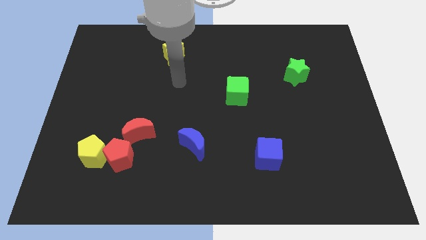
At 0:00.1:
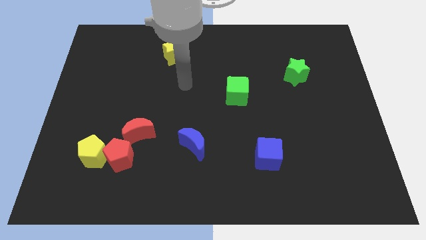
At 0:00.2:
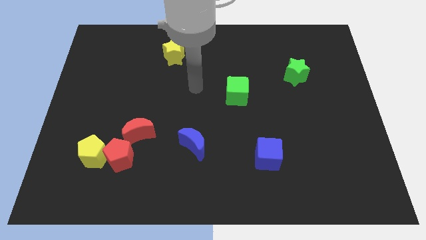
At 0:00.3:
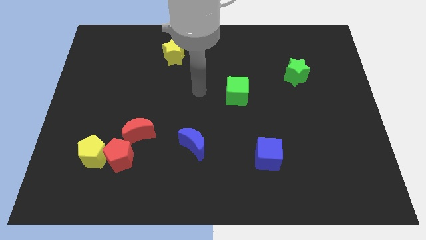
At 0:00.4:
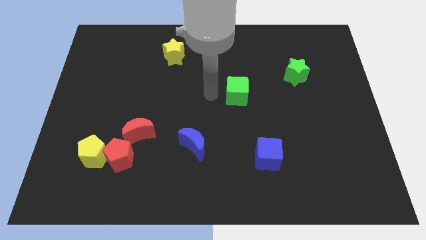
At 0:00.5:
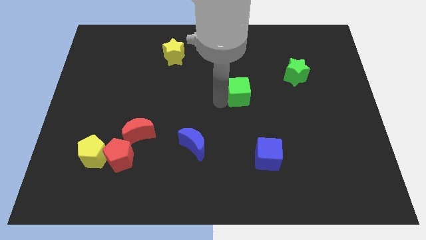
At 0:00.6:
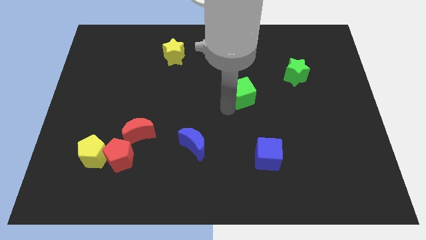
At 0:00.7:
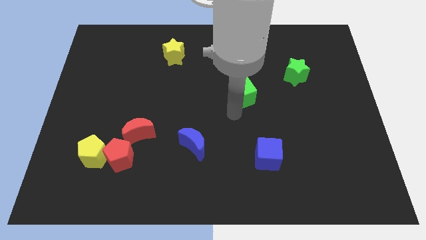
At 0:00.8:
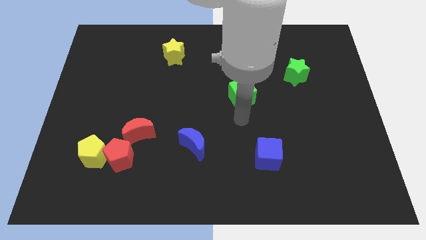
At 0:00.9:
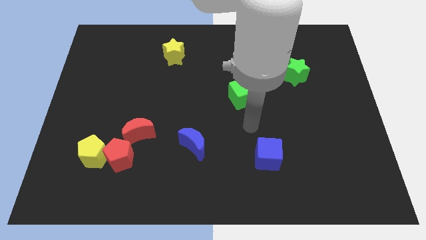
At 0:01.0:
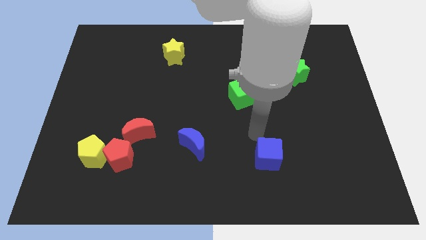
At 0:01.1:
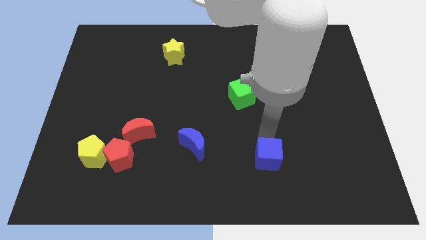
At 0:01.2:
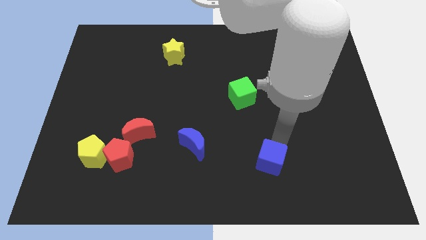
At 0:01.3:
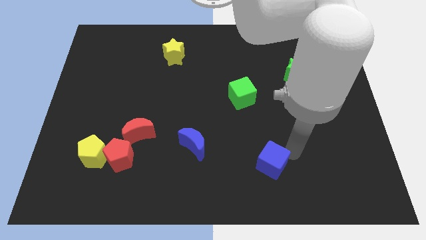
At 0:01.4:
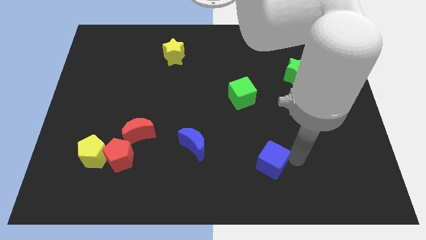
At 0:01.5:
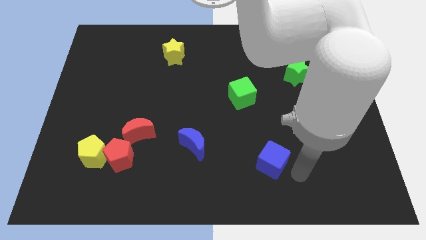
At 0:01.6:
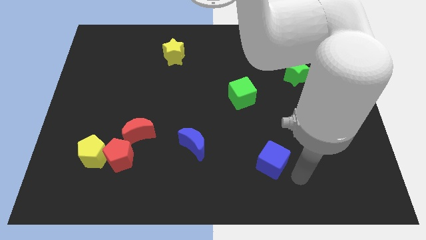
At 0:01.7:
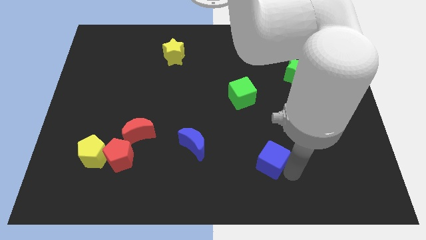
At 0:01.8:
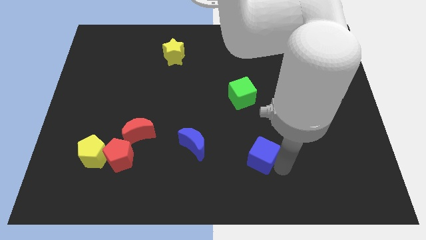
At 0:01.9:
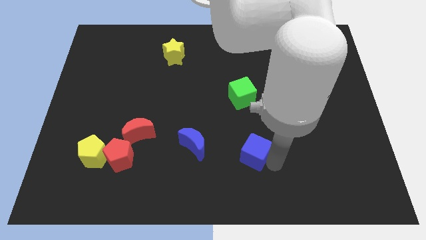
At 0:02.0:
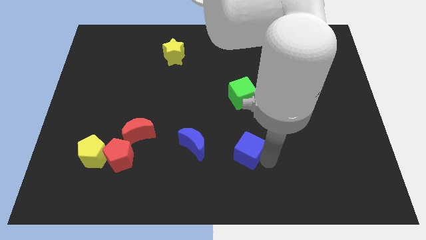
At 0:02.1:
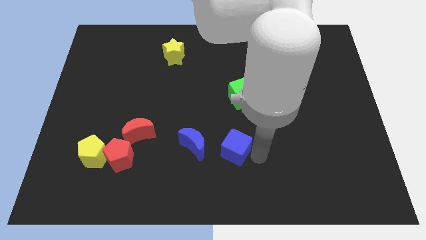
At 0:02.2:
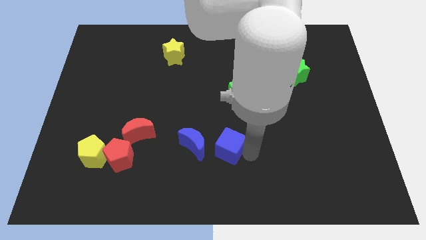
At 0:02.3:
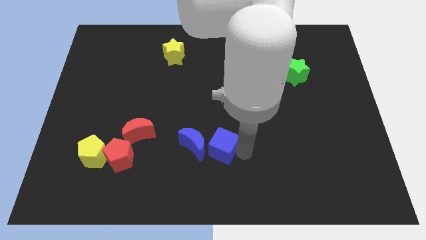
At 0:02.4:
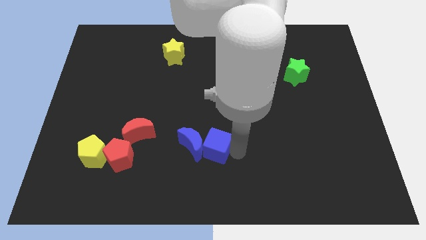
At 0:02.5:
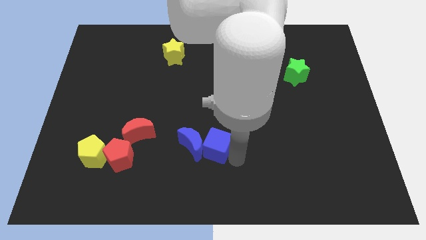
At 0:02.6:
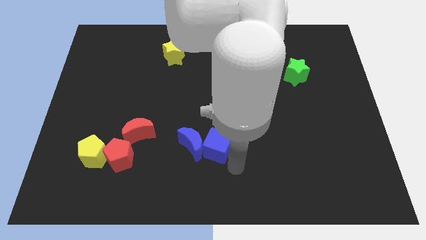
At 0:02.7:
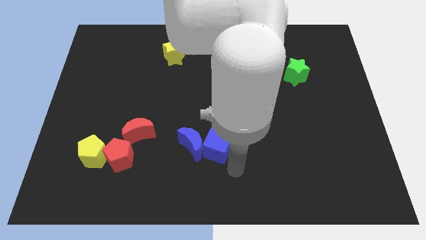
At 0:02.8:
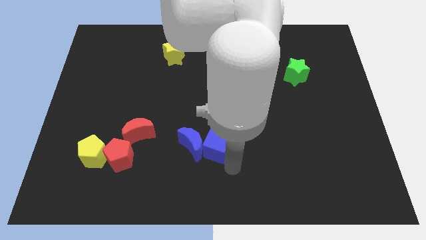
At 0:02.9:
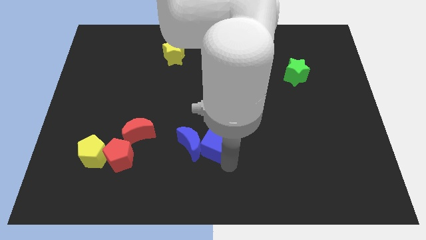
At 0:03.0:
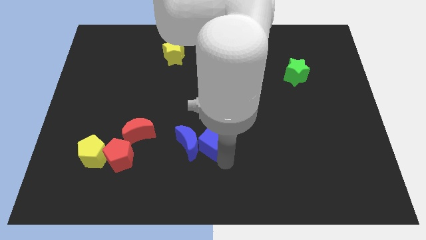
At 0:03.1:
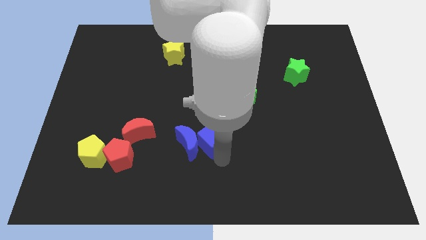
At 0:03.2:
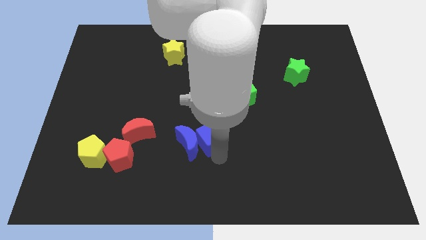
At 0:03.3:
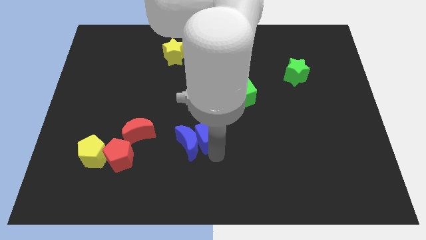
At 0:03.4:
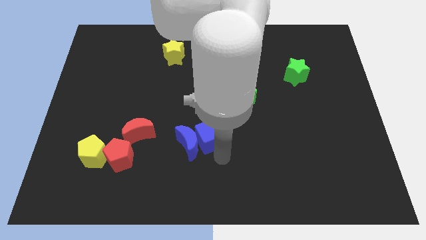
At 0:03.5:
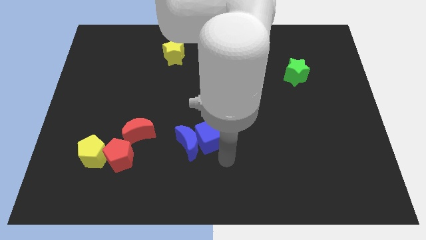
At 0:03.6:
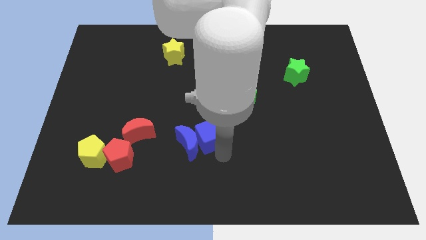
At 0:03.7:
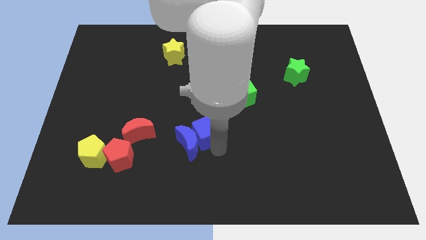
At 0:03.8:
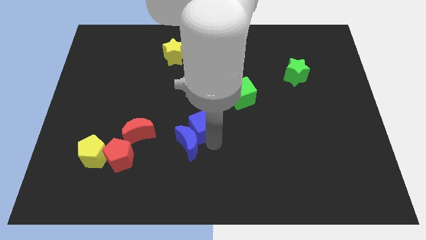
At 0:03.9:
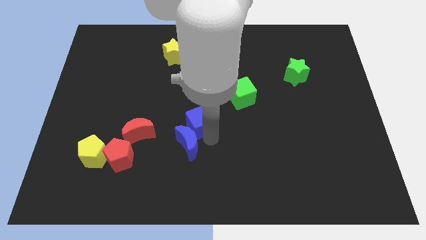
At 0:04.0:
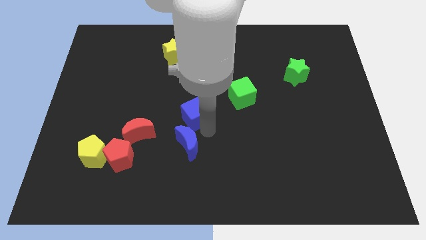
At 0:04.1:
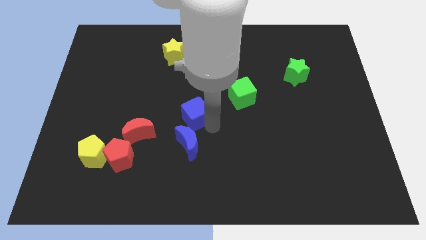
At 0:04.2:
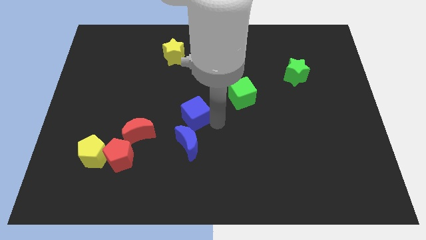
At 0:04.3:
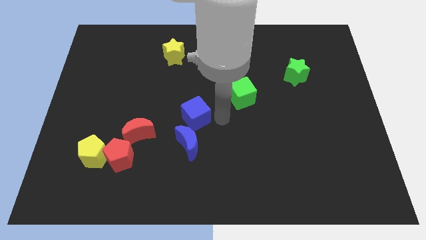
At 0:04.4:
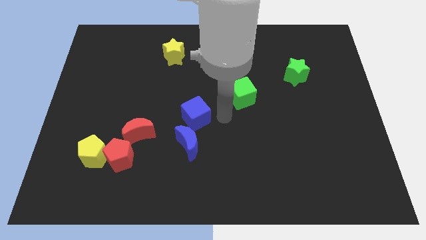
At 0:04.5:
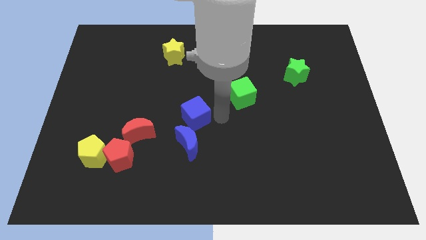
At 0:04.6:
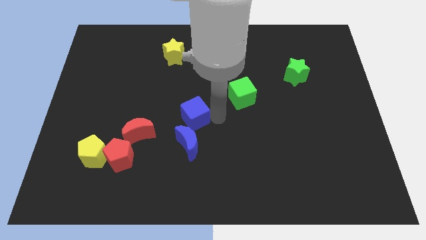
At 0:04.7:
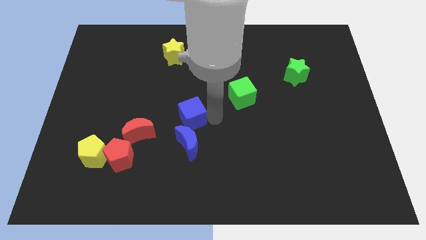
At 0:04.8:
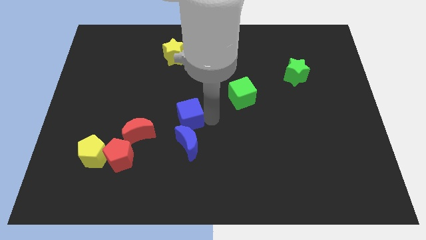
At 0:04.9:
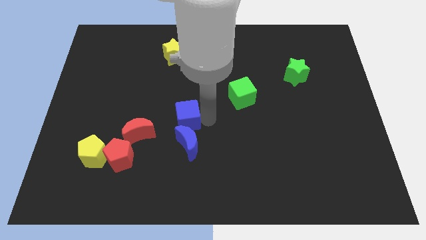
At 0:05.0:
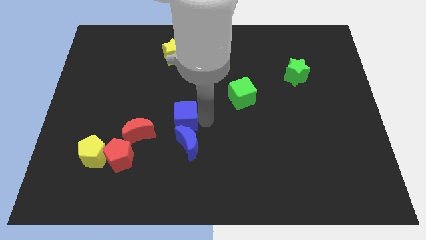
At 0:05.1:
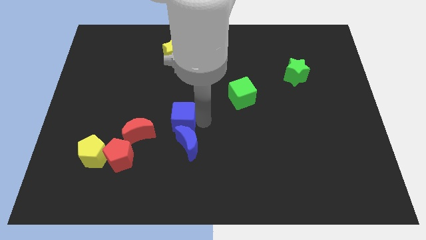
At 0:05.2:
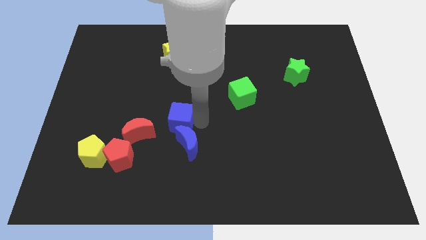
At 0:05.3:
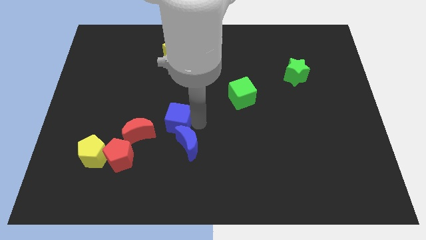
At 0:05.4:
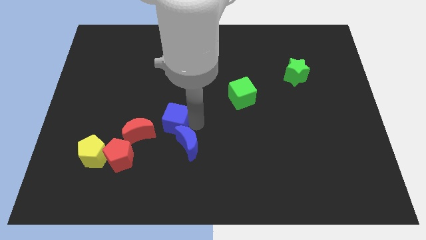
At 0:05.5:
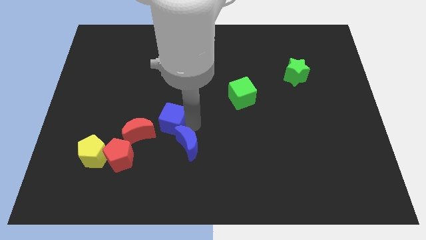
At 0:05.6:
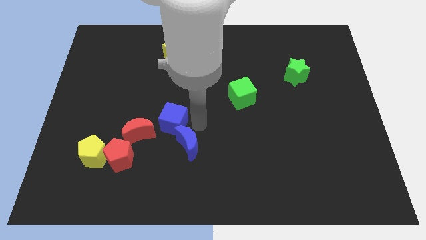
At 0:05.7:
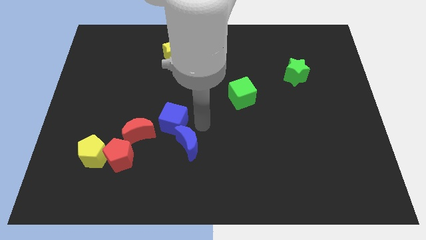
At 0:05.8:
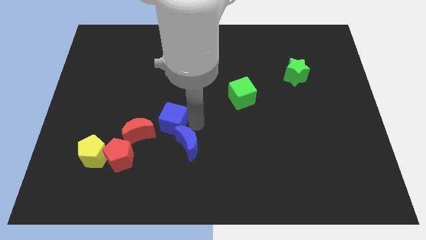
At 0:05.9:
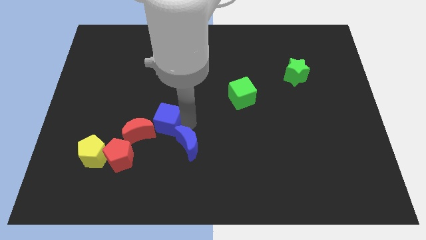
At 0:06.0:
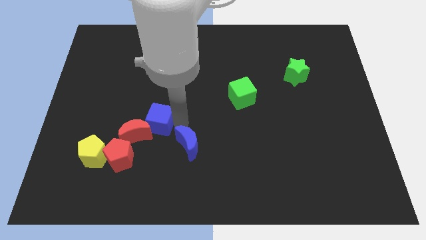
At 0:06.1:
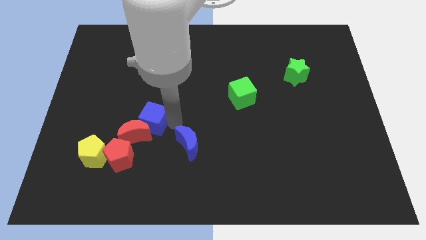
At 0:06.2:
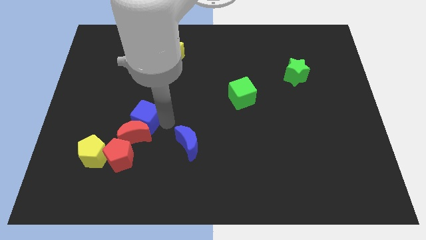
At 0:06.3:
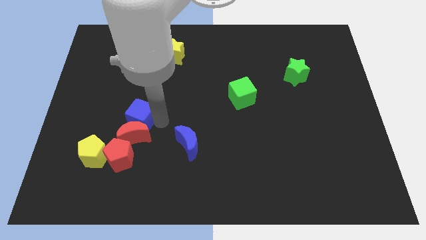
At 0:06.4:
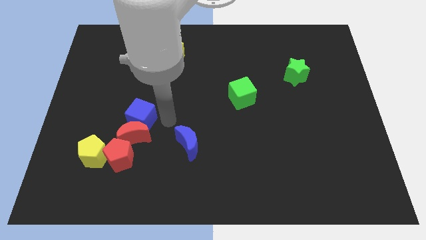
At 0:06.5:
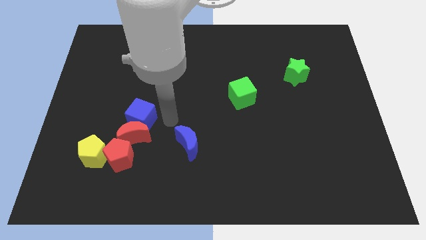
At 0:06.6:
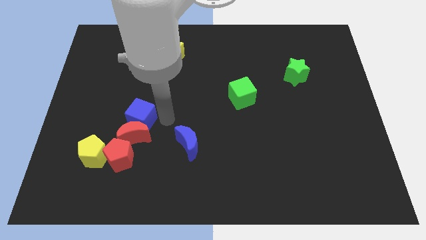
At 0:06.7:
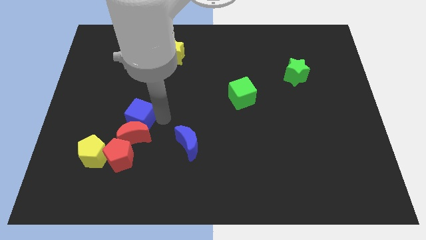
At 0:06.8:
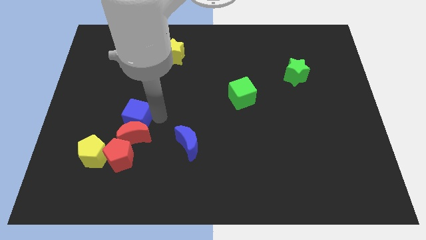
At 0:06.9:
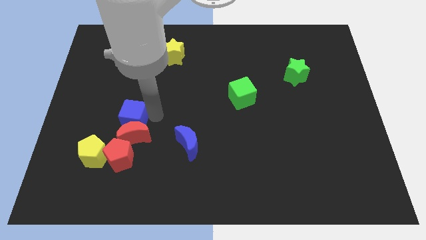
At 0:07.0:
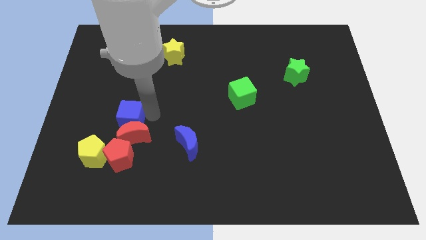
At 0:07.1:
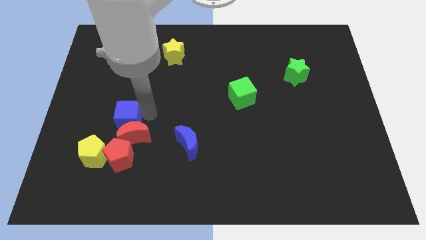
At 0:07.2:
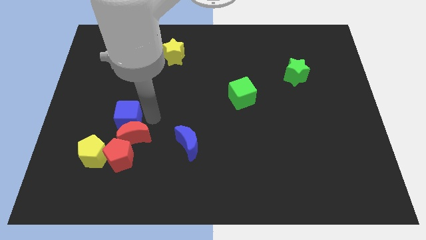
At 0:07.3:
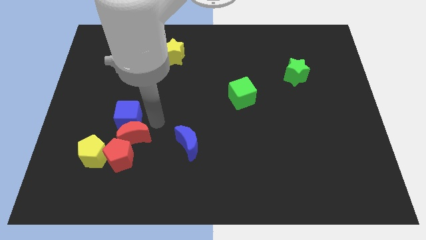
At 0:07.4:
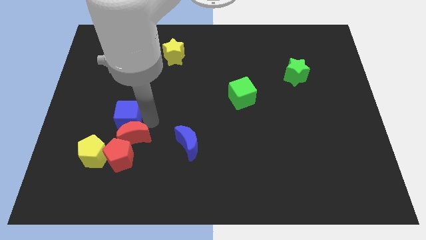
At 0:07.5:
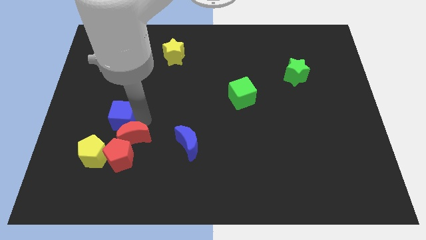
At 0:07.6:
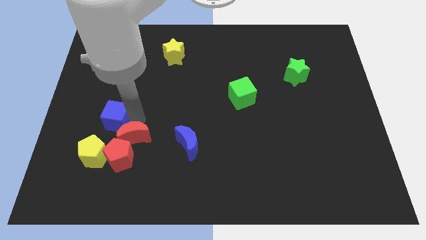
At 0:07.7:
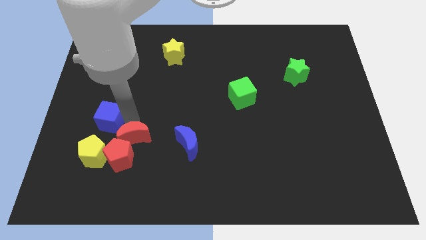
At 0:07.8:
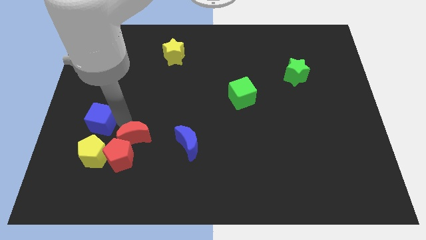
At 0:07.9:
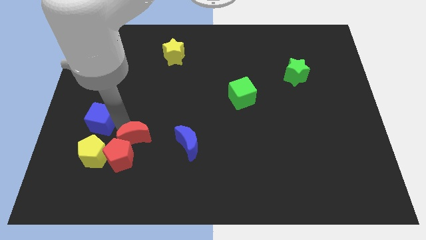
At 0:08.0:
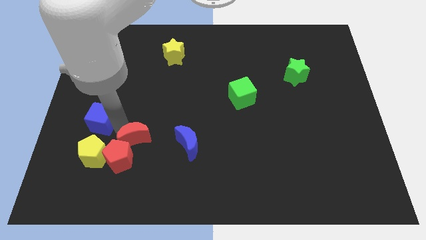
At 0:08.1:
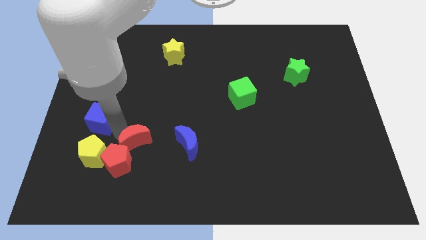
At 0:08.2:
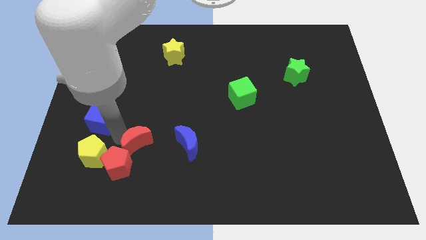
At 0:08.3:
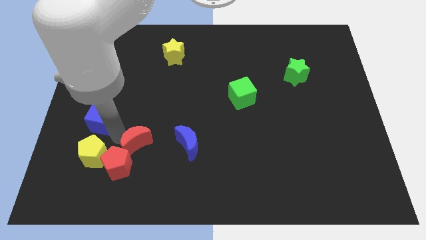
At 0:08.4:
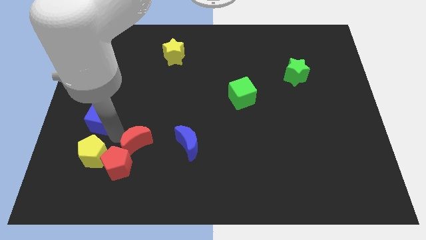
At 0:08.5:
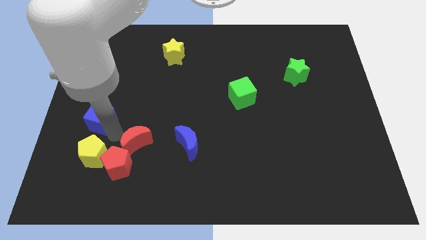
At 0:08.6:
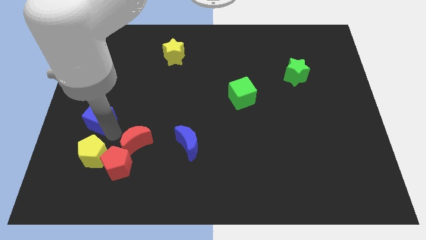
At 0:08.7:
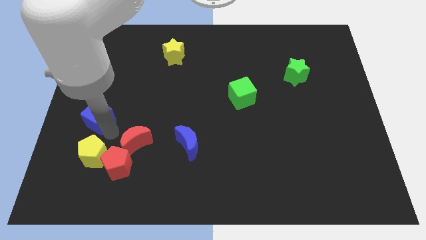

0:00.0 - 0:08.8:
move the blue cube to the center left
